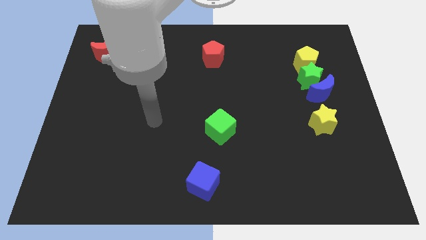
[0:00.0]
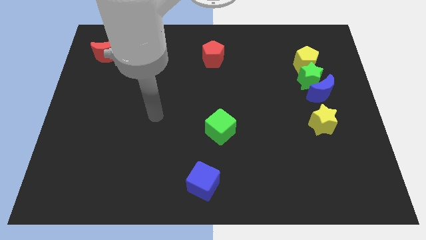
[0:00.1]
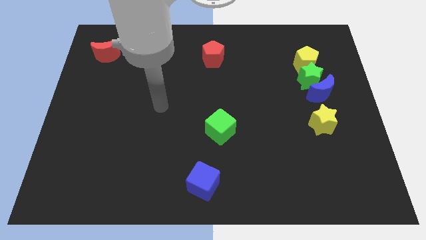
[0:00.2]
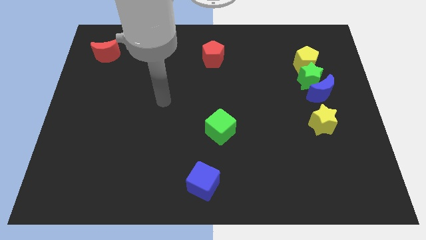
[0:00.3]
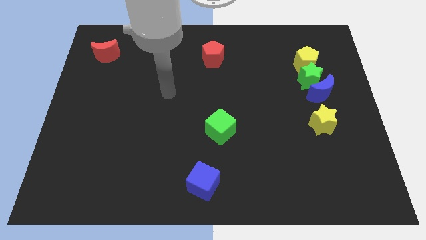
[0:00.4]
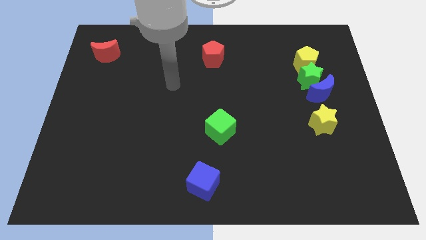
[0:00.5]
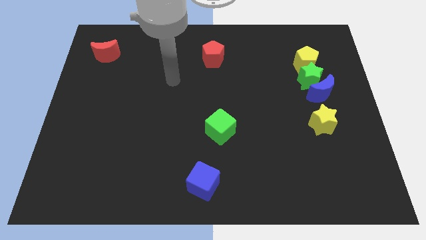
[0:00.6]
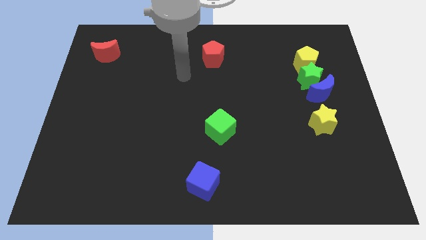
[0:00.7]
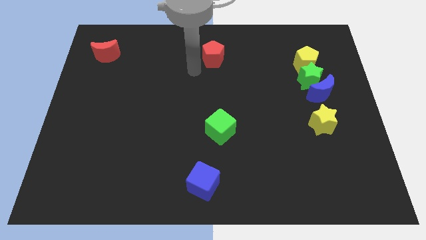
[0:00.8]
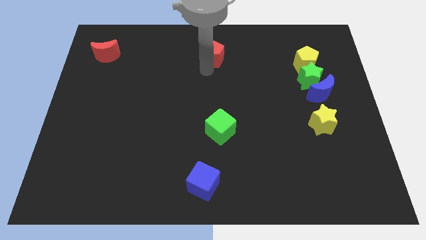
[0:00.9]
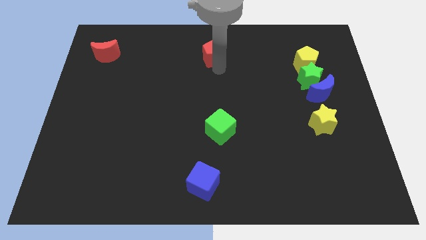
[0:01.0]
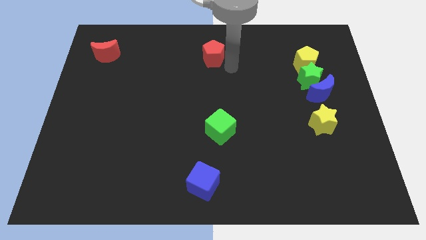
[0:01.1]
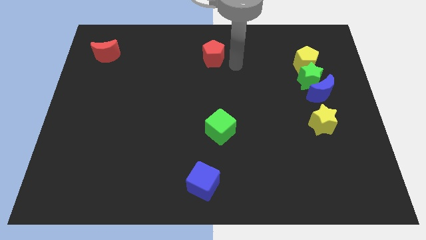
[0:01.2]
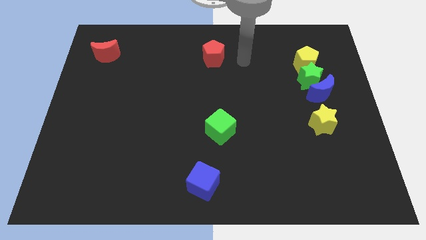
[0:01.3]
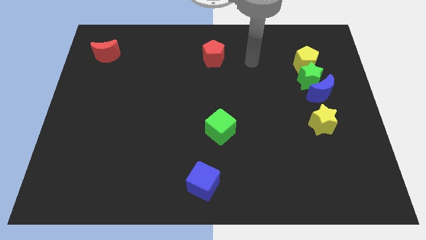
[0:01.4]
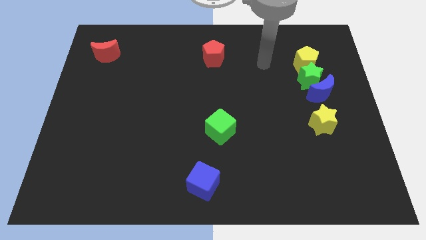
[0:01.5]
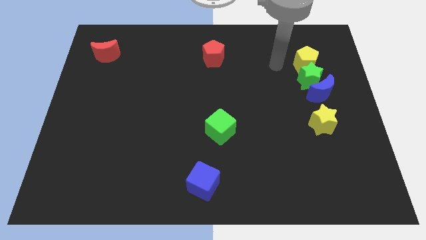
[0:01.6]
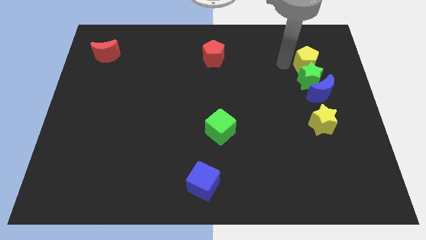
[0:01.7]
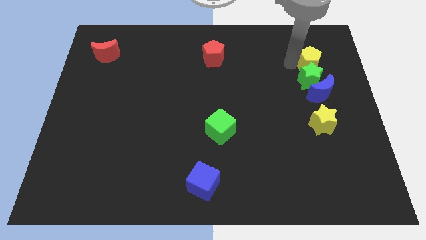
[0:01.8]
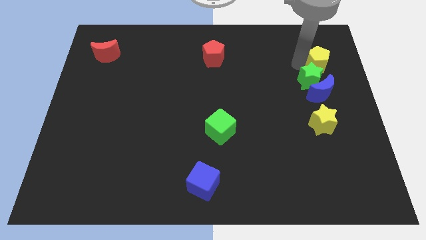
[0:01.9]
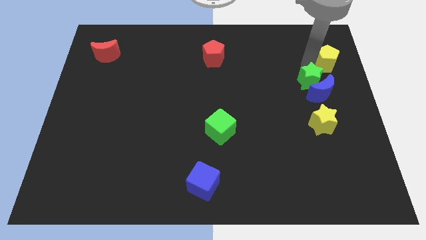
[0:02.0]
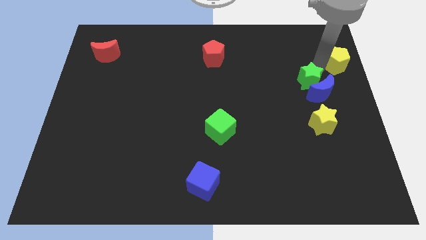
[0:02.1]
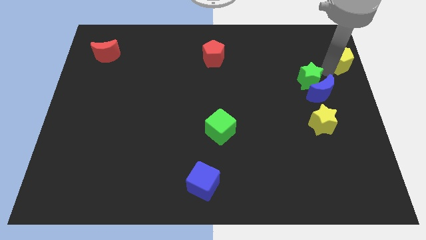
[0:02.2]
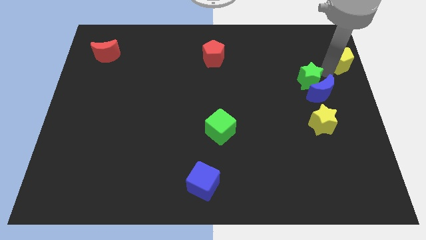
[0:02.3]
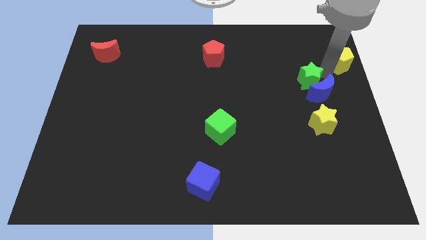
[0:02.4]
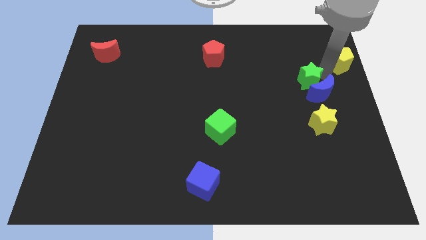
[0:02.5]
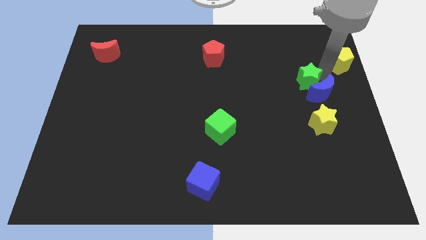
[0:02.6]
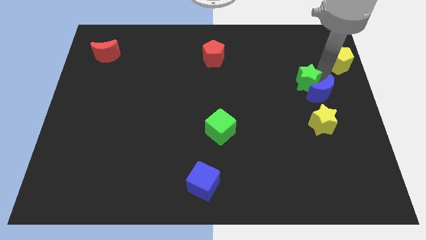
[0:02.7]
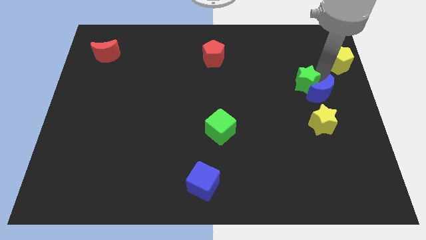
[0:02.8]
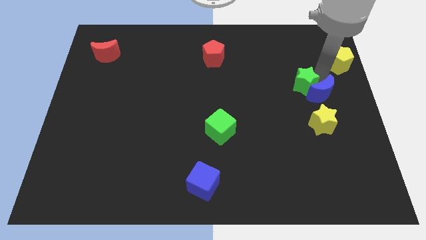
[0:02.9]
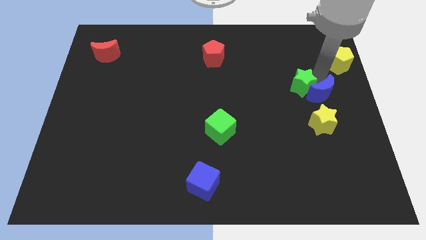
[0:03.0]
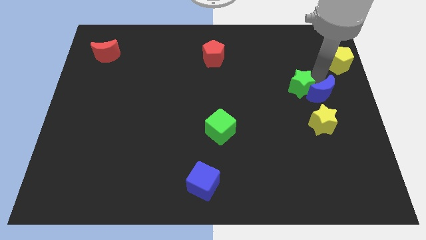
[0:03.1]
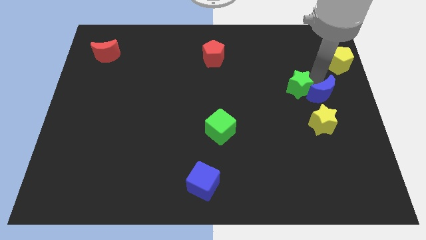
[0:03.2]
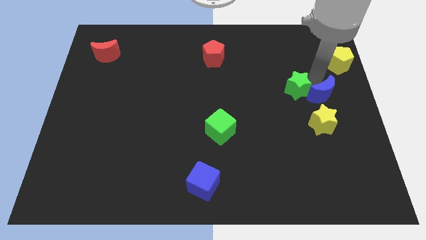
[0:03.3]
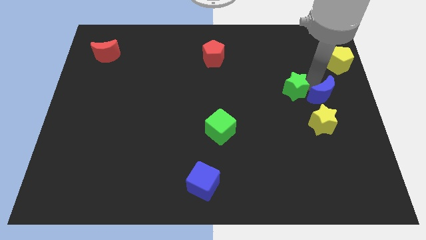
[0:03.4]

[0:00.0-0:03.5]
separate the green star from the blue moon and yellow pentagon

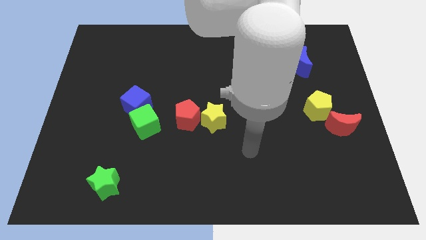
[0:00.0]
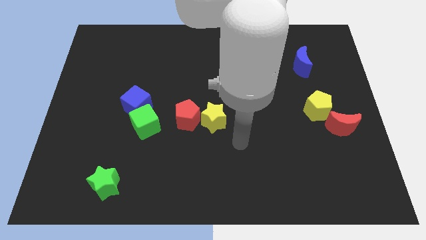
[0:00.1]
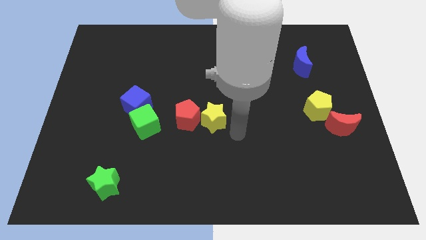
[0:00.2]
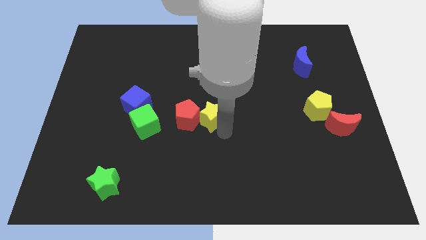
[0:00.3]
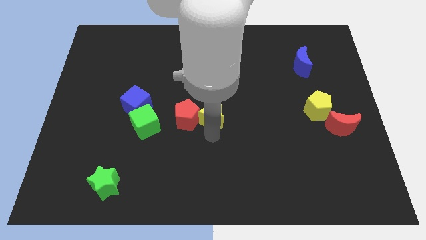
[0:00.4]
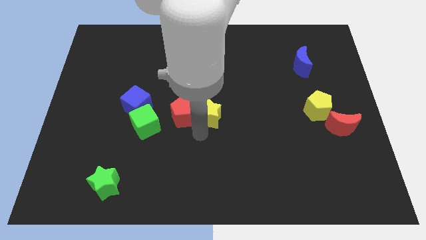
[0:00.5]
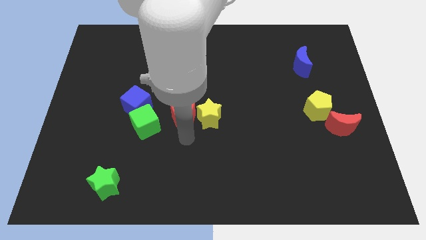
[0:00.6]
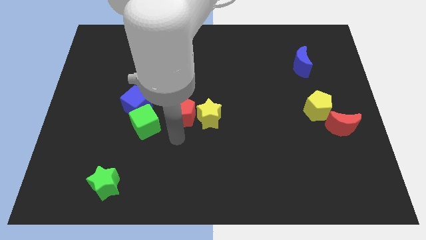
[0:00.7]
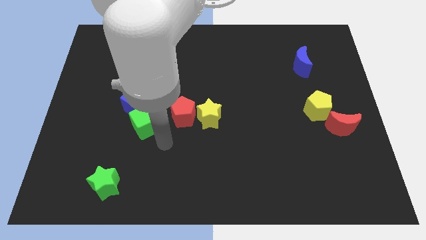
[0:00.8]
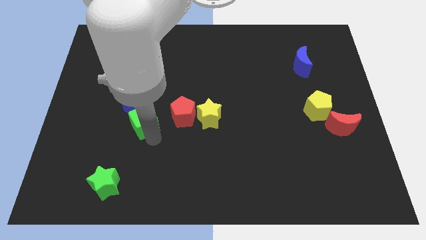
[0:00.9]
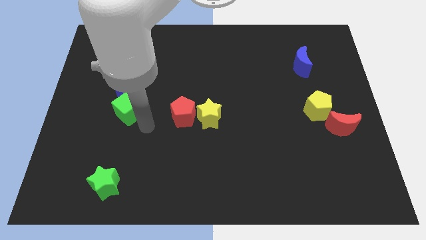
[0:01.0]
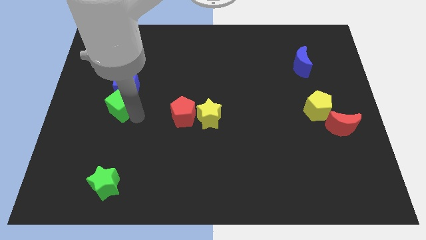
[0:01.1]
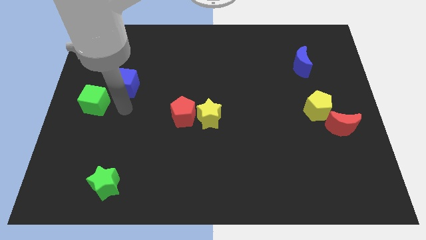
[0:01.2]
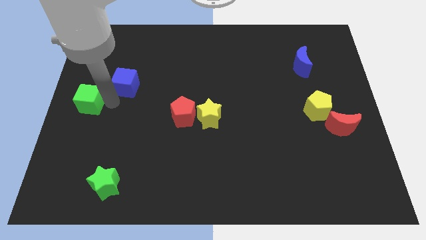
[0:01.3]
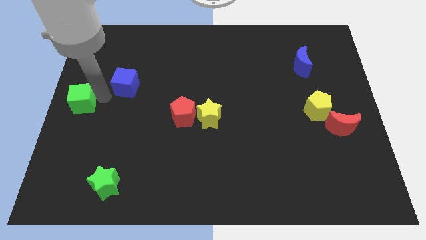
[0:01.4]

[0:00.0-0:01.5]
pull the blue cube apart from the green cube

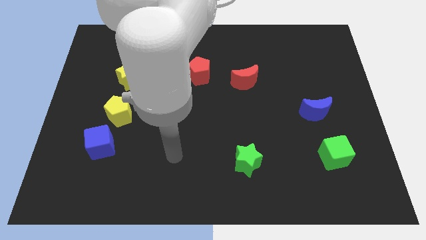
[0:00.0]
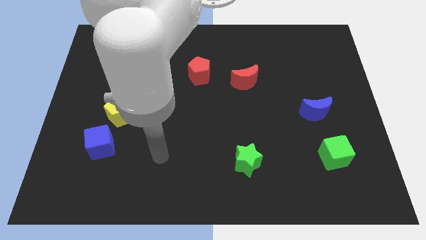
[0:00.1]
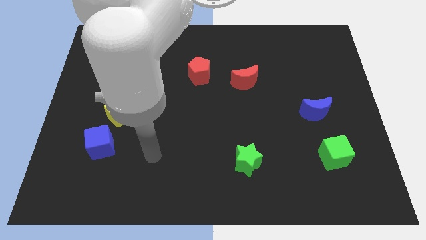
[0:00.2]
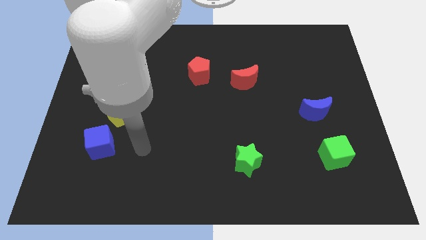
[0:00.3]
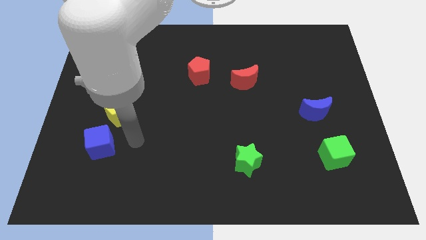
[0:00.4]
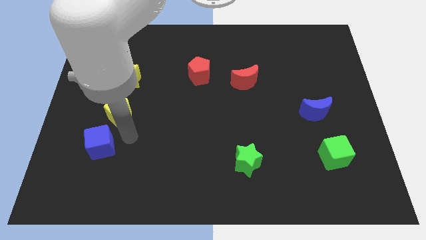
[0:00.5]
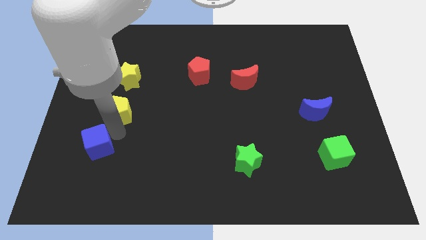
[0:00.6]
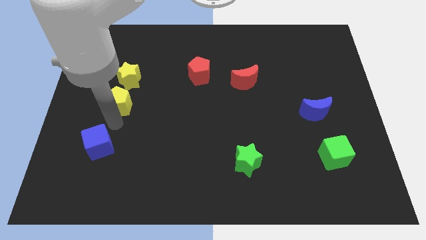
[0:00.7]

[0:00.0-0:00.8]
separate the blue cube from the yellow pentagon

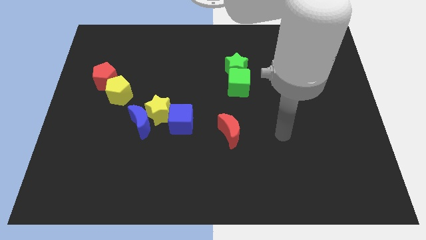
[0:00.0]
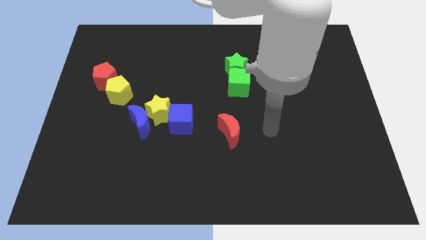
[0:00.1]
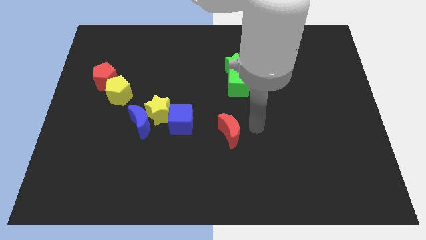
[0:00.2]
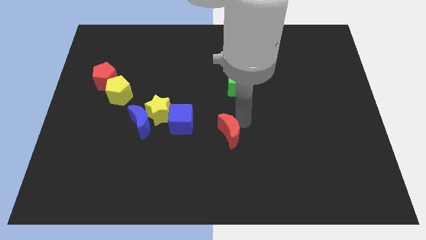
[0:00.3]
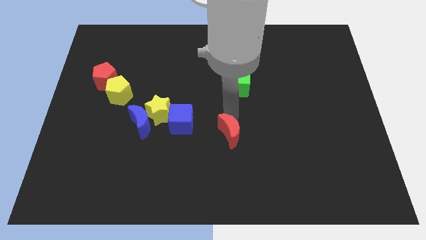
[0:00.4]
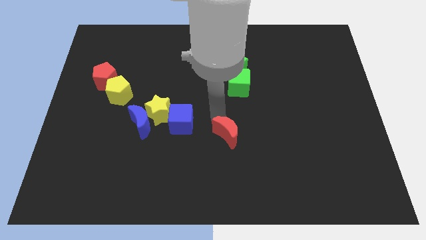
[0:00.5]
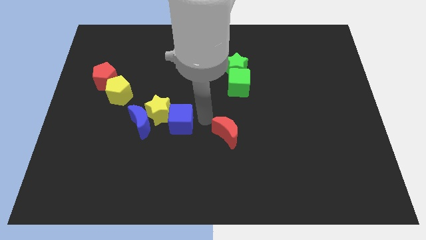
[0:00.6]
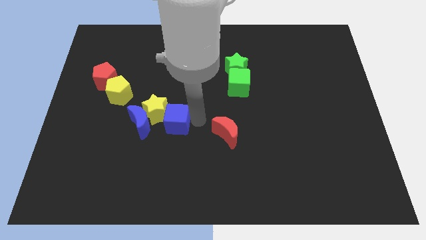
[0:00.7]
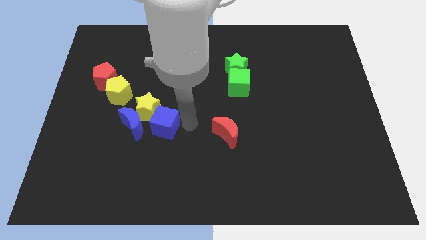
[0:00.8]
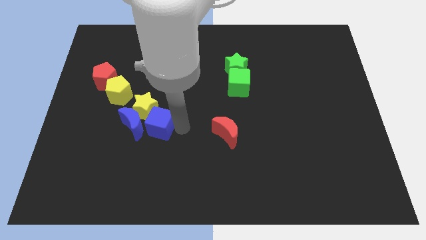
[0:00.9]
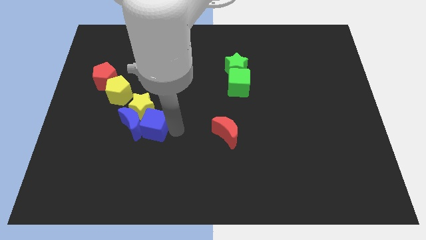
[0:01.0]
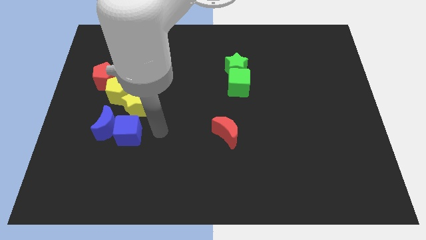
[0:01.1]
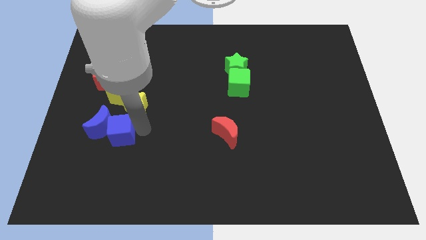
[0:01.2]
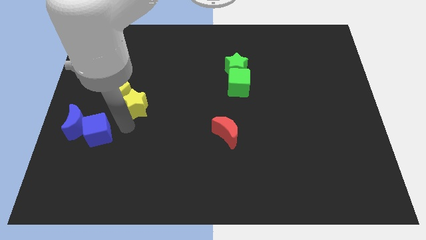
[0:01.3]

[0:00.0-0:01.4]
pull the yellow star apart from the blue moon and blue cube

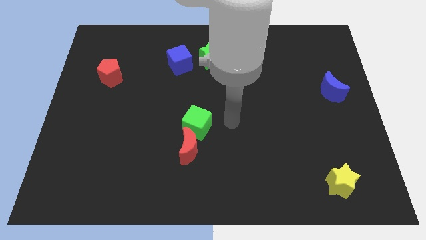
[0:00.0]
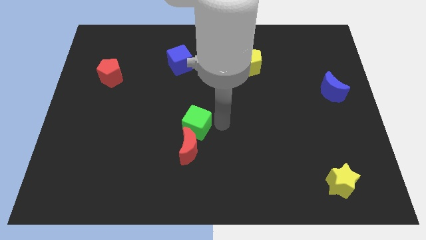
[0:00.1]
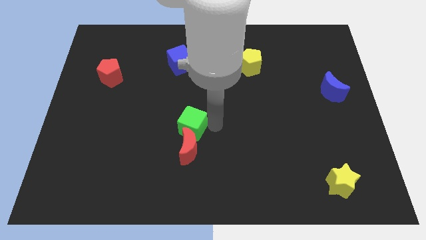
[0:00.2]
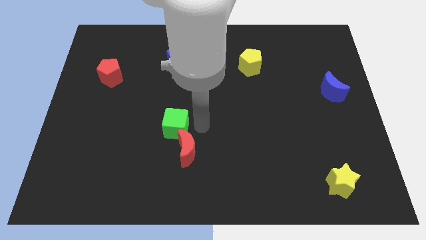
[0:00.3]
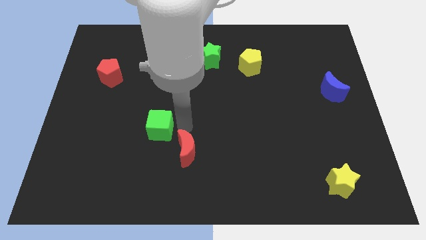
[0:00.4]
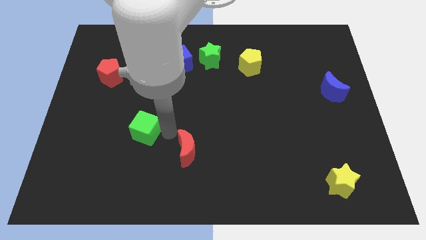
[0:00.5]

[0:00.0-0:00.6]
pull the red moon apart from the green cube

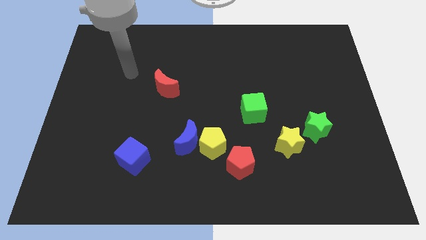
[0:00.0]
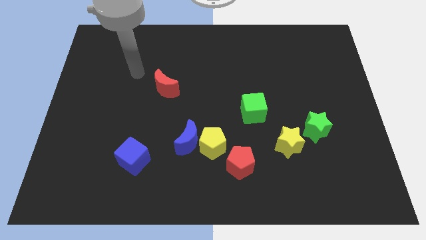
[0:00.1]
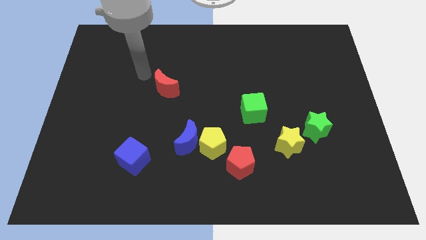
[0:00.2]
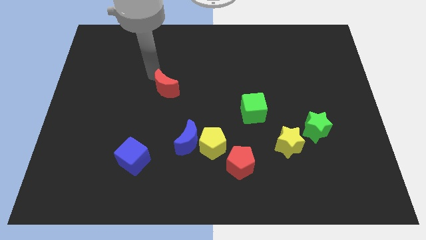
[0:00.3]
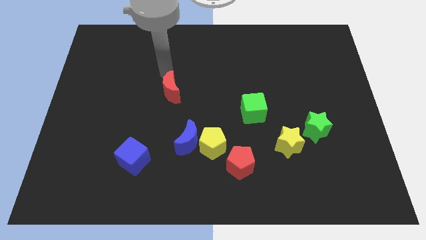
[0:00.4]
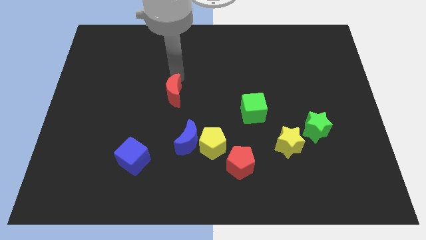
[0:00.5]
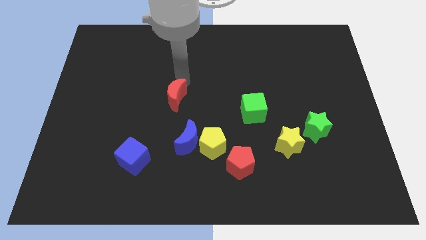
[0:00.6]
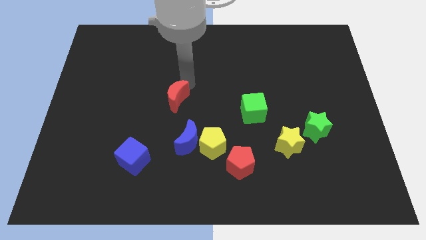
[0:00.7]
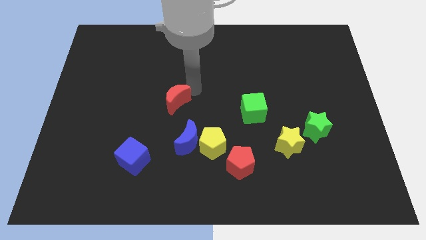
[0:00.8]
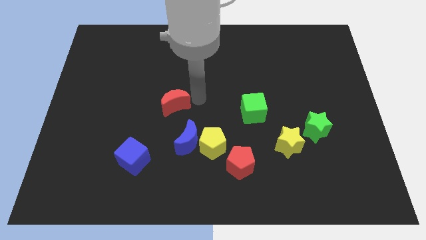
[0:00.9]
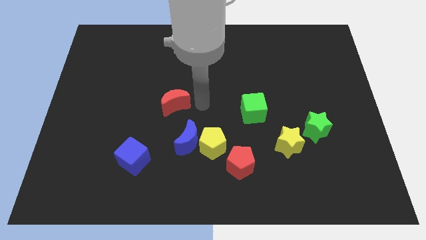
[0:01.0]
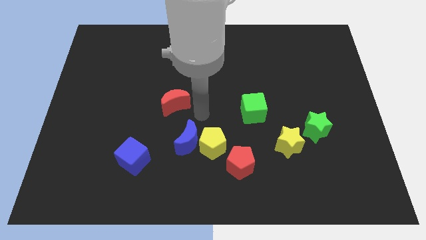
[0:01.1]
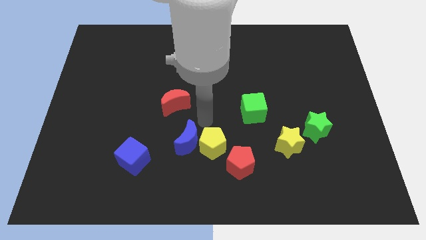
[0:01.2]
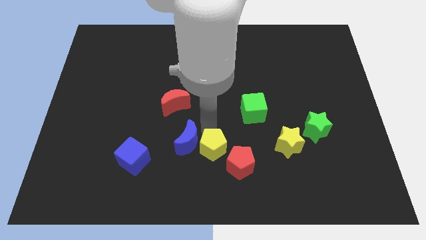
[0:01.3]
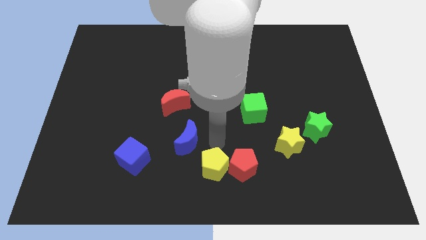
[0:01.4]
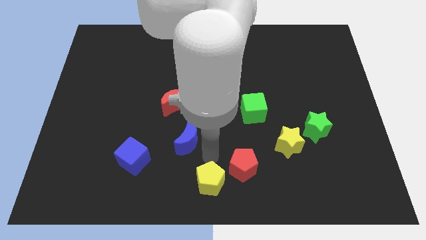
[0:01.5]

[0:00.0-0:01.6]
pull the blue moon apart from the yellow pentagon

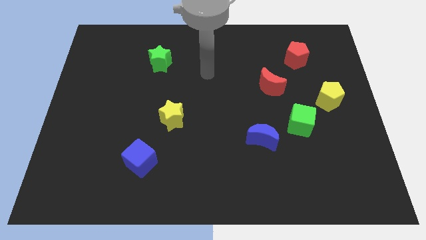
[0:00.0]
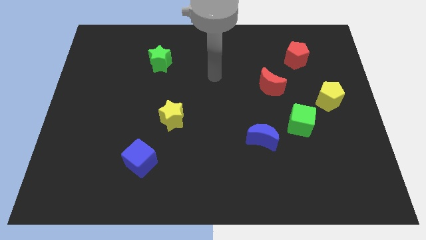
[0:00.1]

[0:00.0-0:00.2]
separate the blue moon from the green cube
